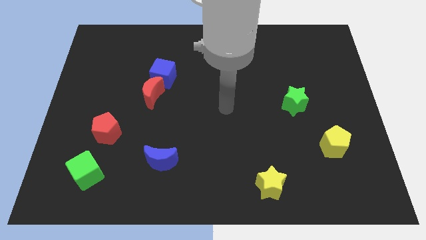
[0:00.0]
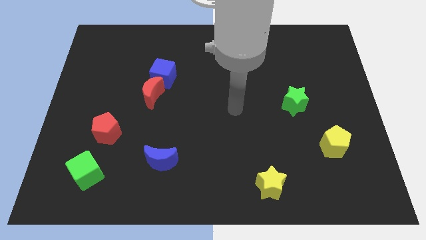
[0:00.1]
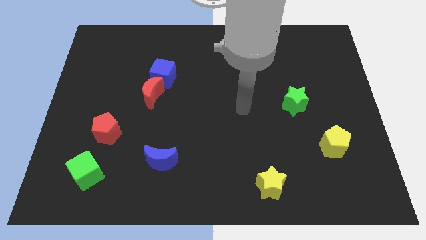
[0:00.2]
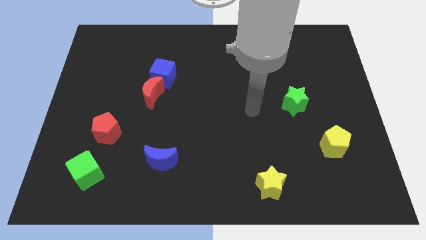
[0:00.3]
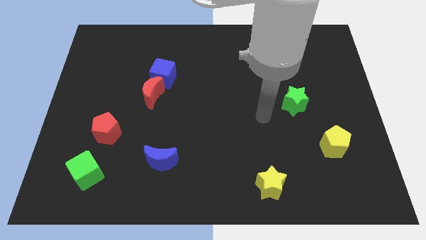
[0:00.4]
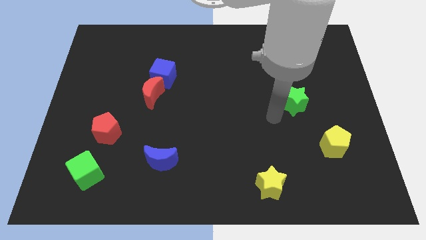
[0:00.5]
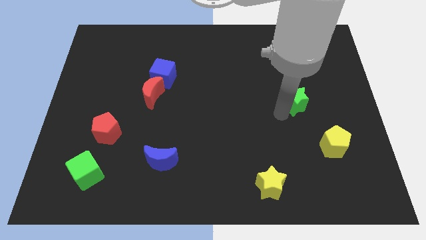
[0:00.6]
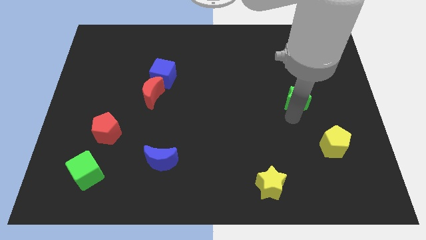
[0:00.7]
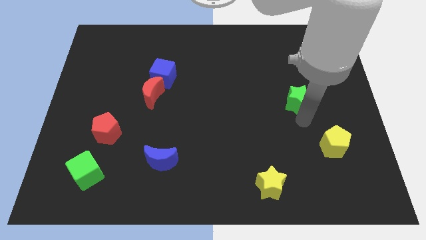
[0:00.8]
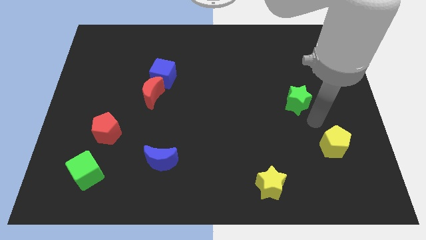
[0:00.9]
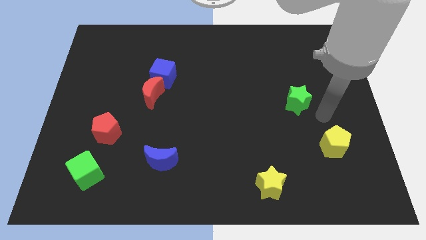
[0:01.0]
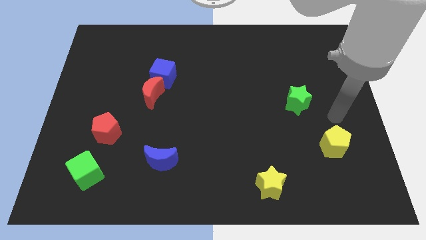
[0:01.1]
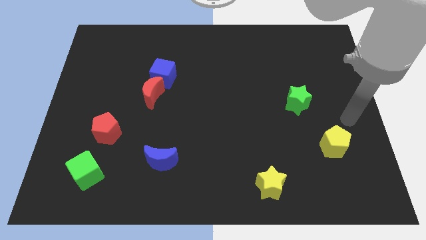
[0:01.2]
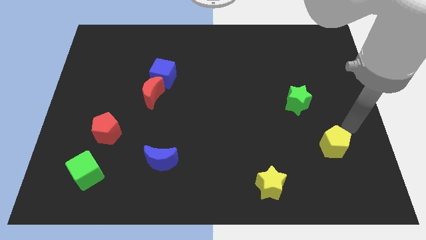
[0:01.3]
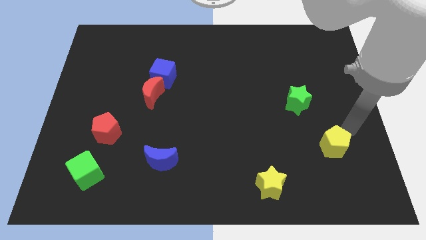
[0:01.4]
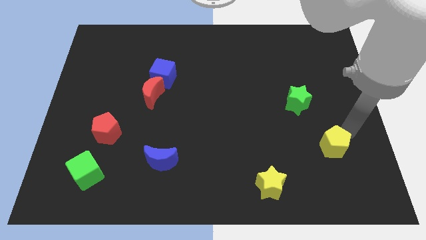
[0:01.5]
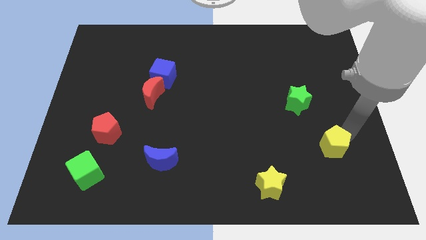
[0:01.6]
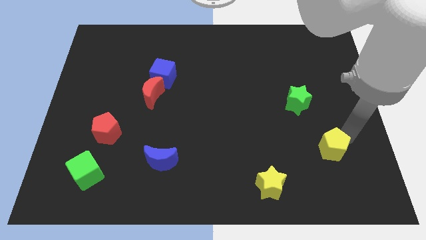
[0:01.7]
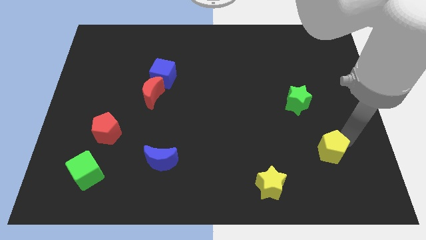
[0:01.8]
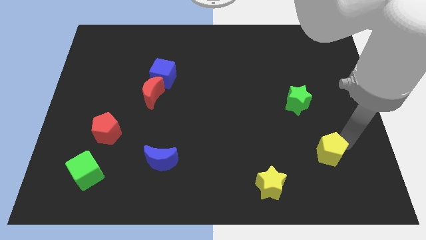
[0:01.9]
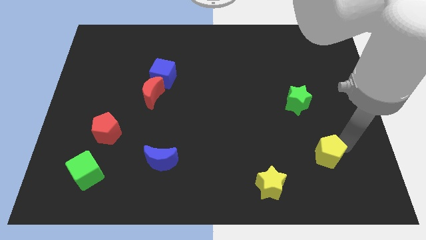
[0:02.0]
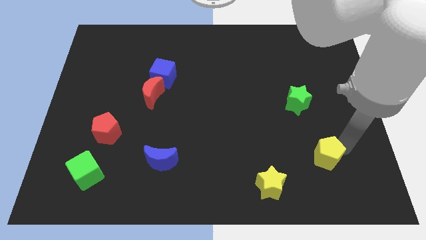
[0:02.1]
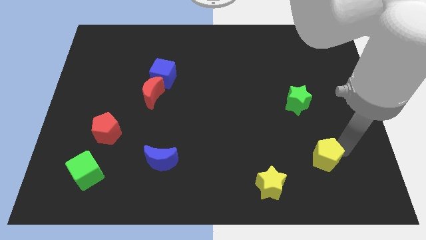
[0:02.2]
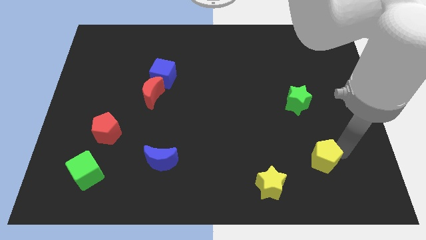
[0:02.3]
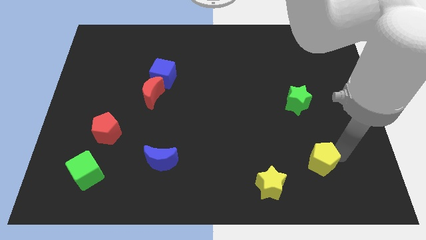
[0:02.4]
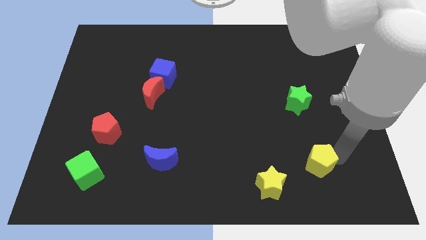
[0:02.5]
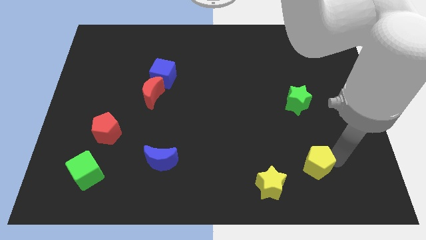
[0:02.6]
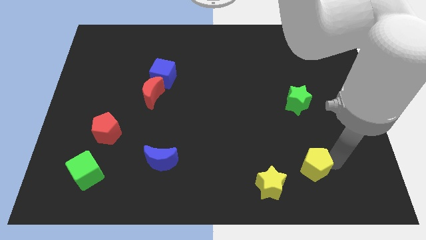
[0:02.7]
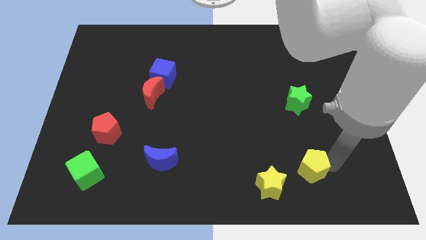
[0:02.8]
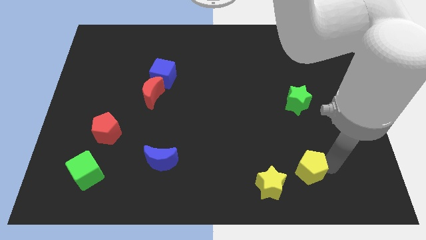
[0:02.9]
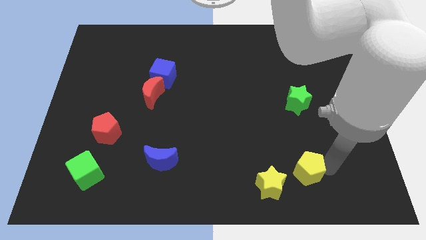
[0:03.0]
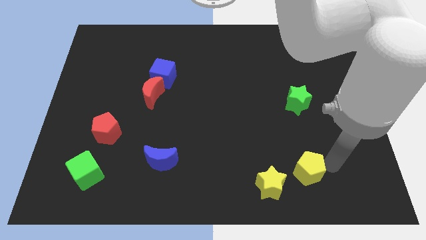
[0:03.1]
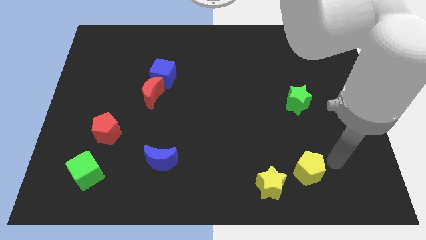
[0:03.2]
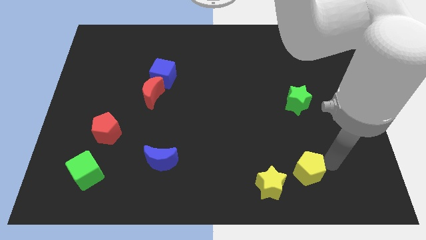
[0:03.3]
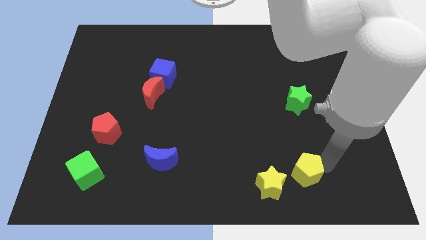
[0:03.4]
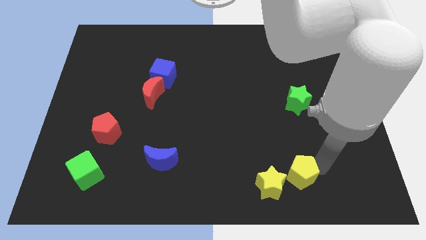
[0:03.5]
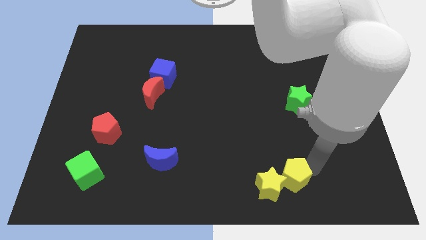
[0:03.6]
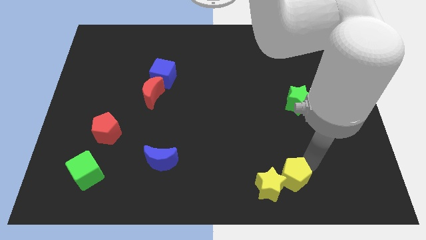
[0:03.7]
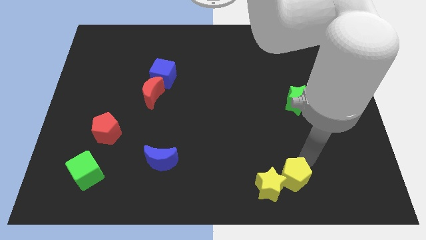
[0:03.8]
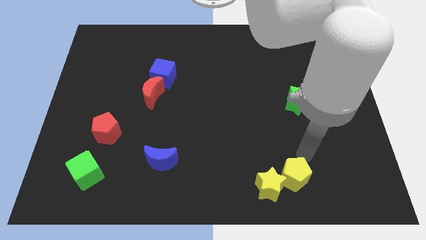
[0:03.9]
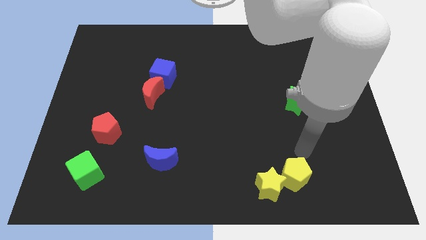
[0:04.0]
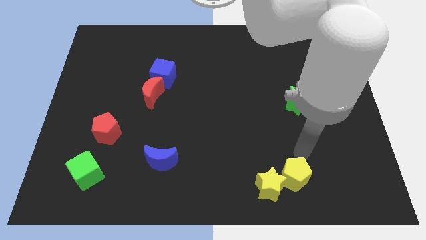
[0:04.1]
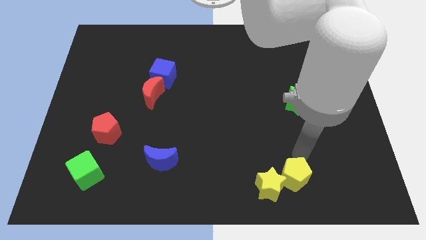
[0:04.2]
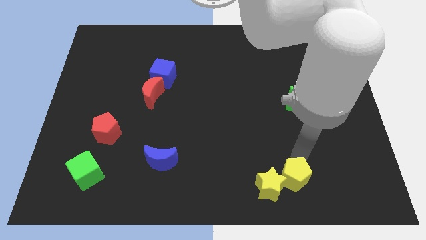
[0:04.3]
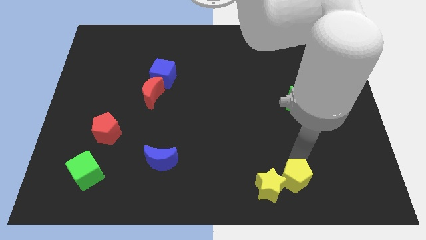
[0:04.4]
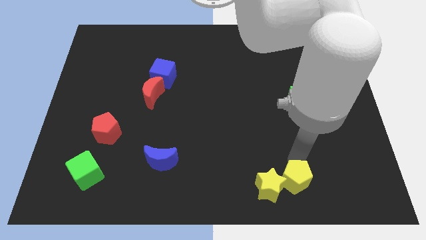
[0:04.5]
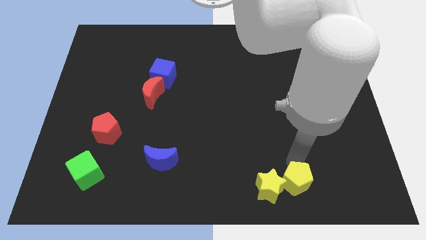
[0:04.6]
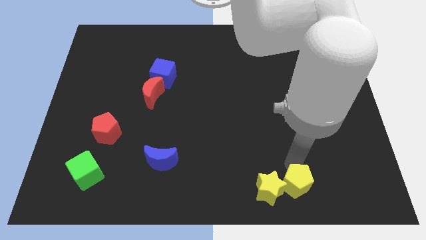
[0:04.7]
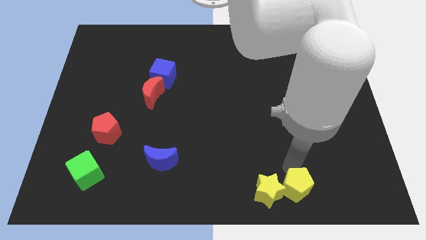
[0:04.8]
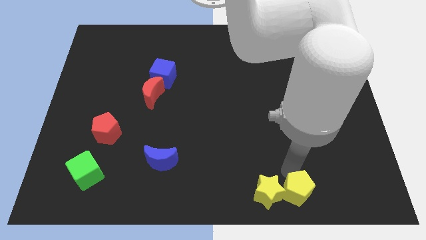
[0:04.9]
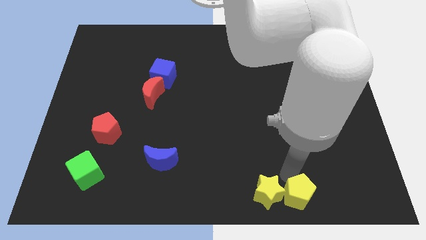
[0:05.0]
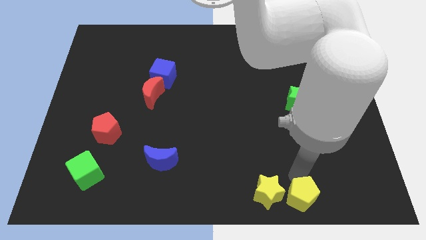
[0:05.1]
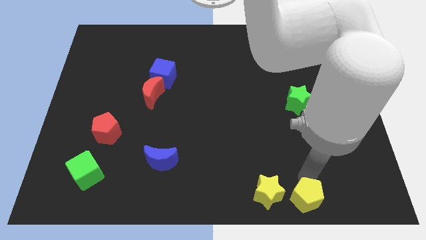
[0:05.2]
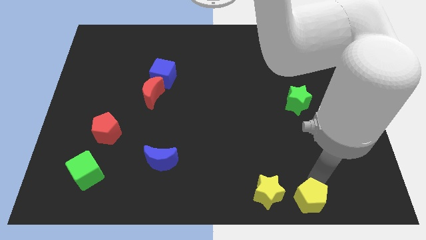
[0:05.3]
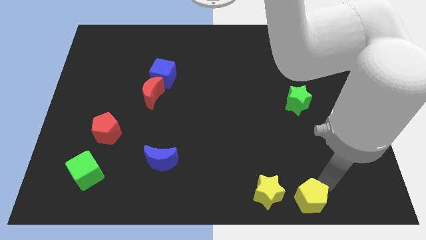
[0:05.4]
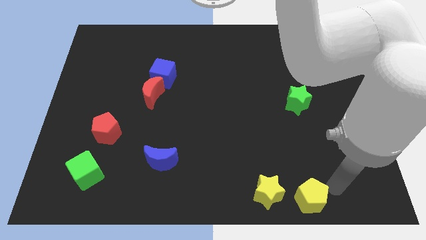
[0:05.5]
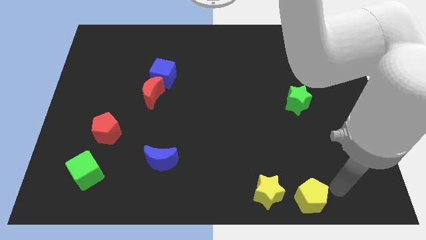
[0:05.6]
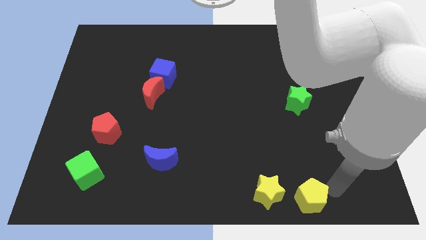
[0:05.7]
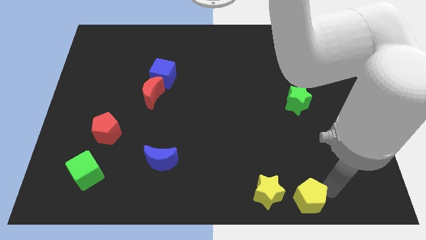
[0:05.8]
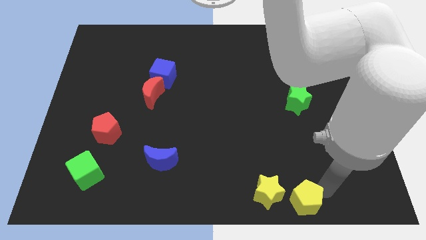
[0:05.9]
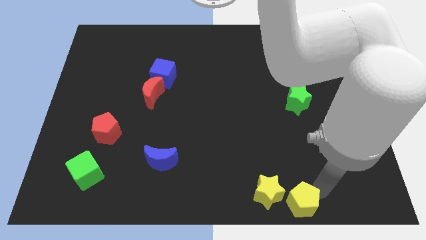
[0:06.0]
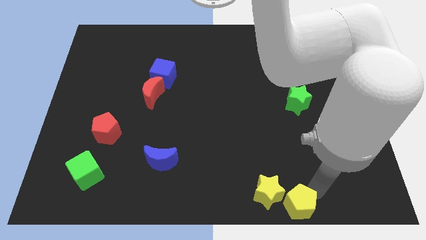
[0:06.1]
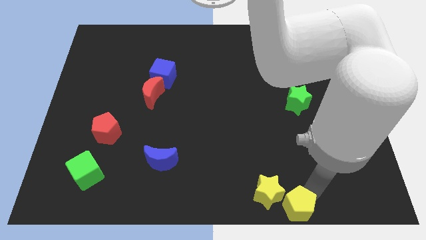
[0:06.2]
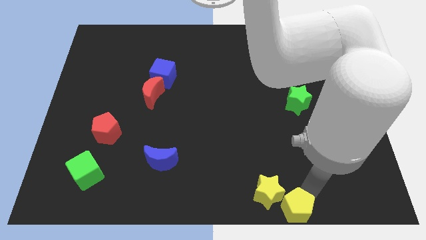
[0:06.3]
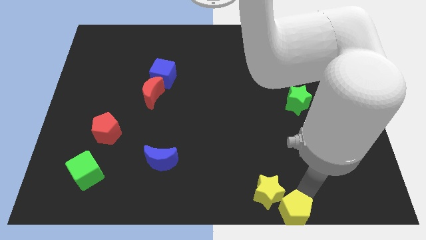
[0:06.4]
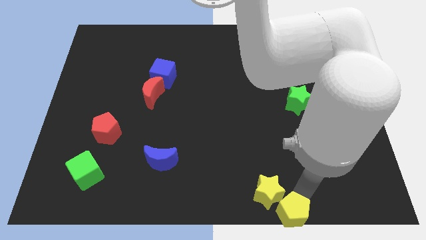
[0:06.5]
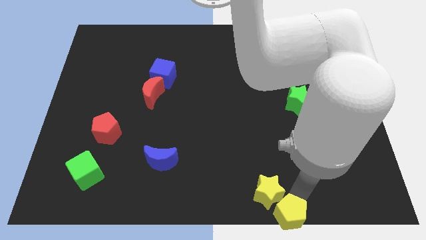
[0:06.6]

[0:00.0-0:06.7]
put the yellow pentagon to the bottom

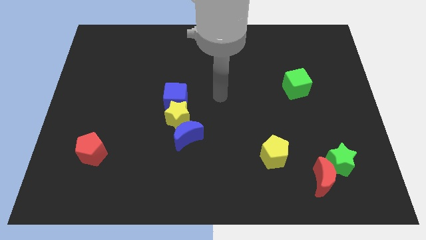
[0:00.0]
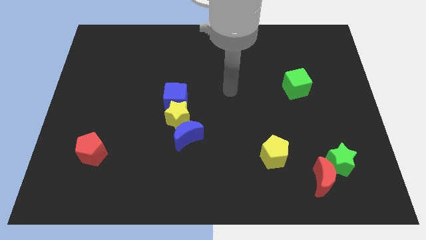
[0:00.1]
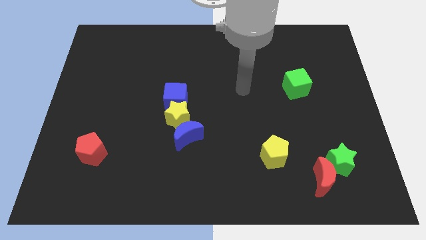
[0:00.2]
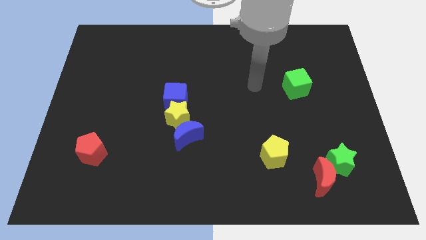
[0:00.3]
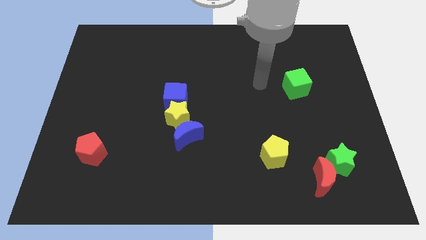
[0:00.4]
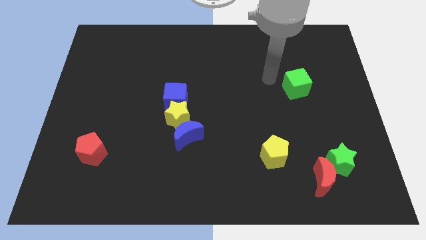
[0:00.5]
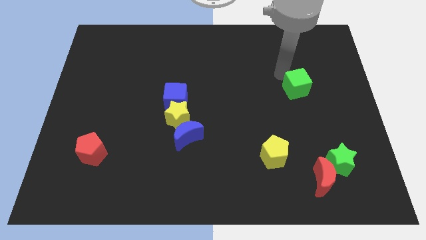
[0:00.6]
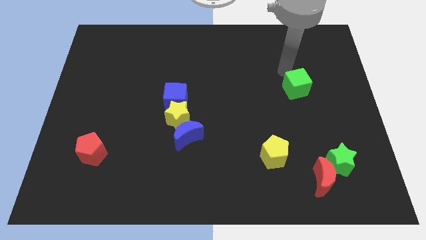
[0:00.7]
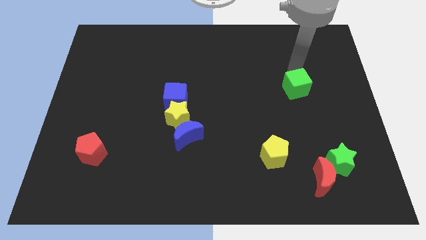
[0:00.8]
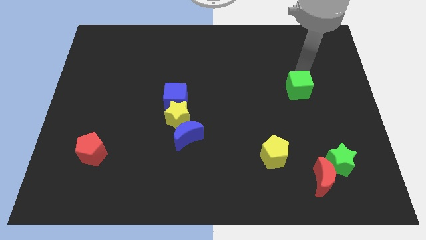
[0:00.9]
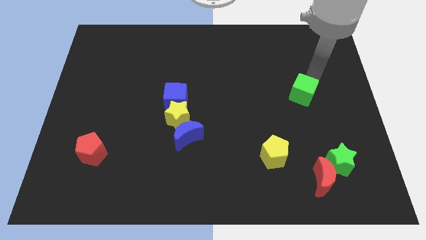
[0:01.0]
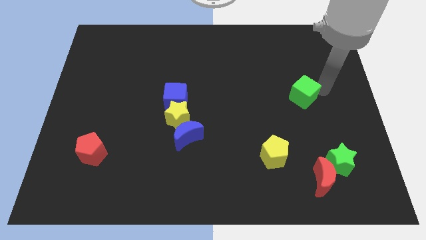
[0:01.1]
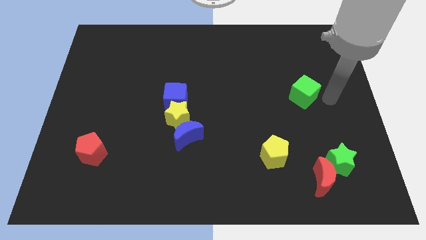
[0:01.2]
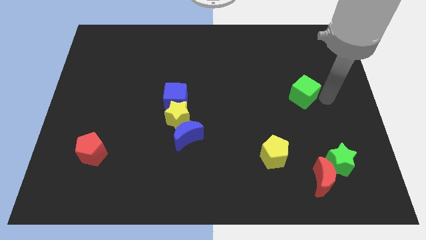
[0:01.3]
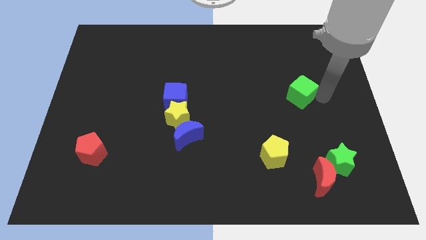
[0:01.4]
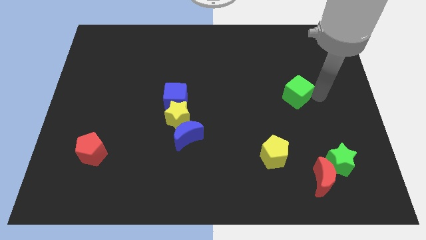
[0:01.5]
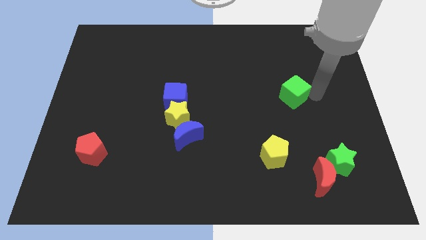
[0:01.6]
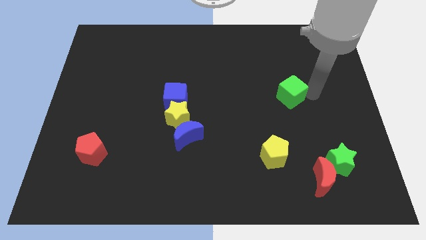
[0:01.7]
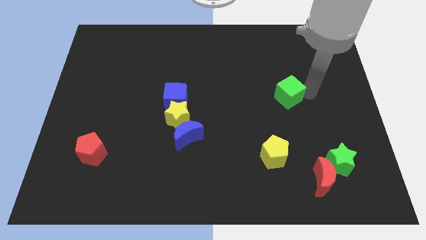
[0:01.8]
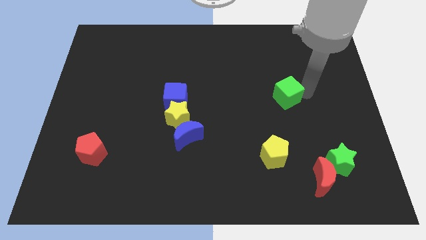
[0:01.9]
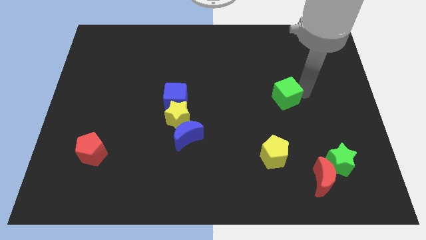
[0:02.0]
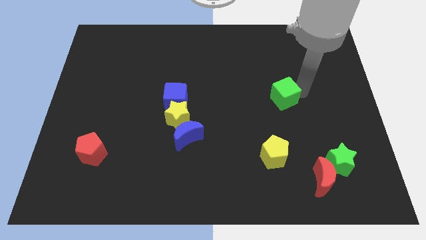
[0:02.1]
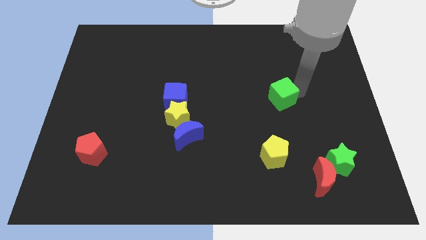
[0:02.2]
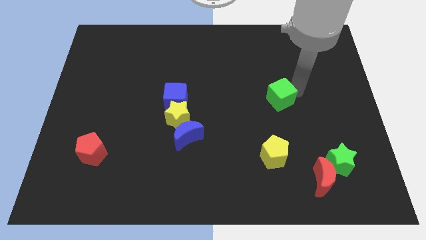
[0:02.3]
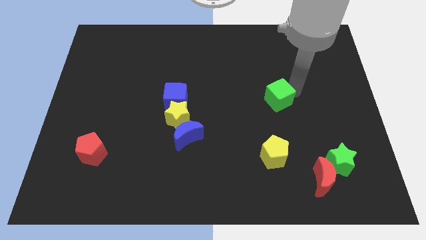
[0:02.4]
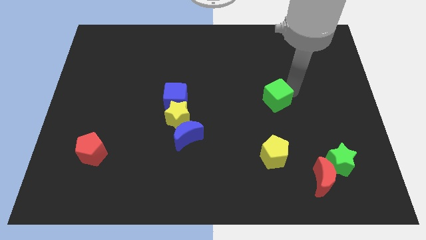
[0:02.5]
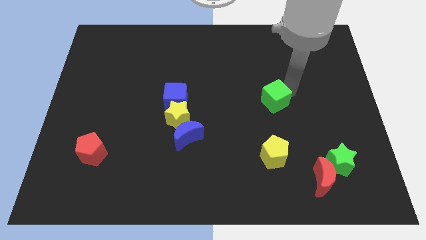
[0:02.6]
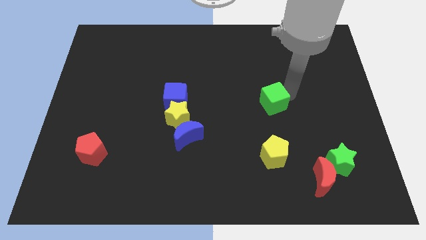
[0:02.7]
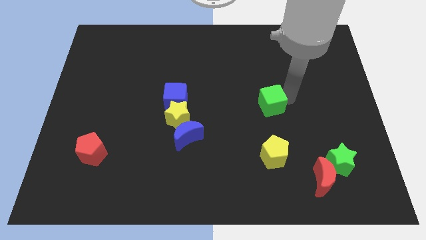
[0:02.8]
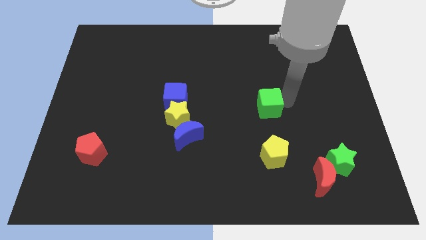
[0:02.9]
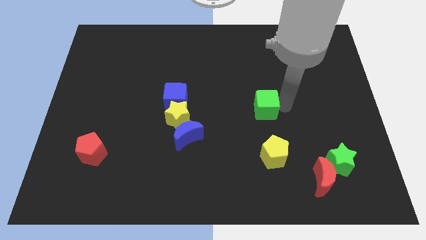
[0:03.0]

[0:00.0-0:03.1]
slide the green cube to the center
